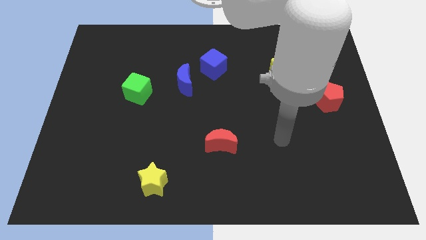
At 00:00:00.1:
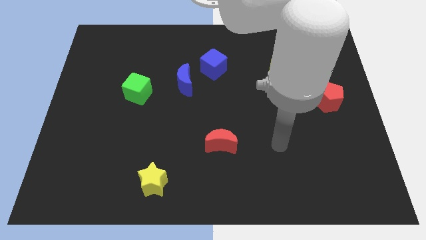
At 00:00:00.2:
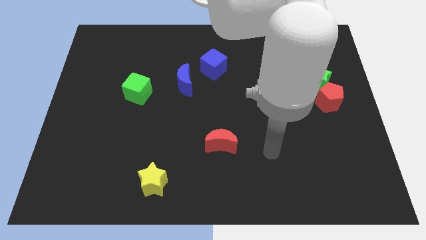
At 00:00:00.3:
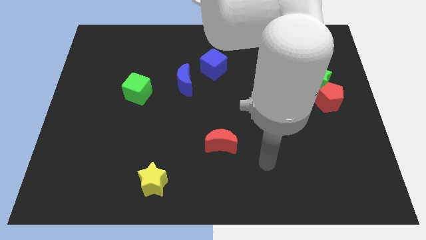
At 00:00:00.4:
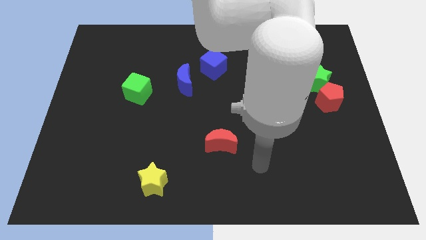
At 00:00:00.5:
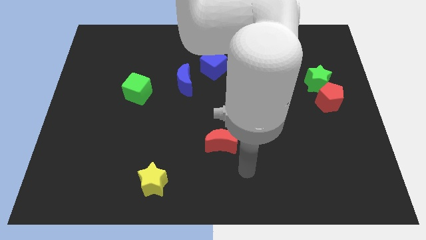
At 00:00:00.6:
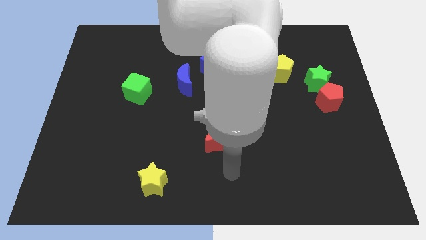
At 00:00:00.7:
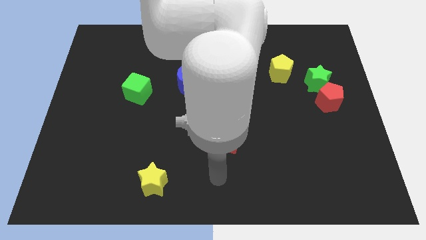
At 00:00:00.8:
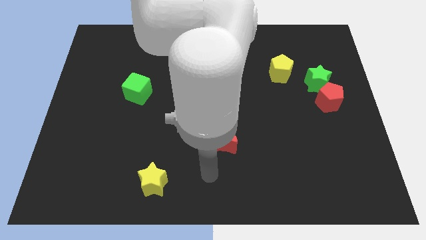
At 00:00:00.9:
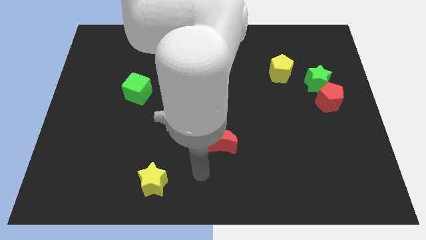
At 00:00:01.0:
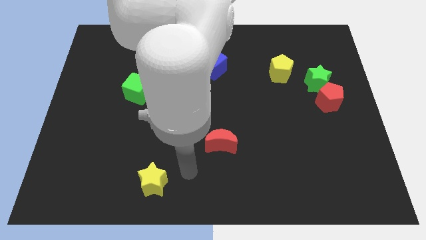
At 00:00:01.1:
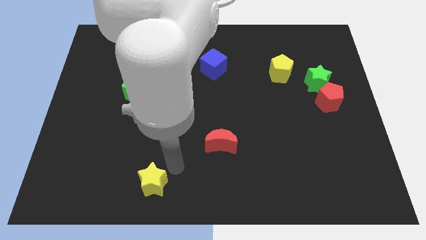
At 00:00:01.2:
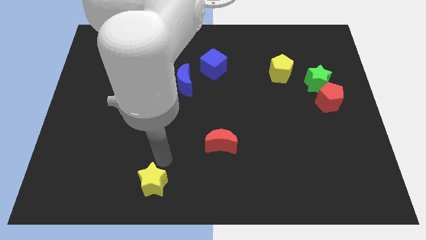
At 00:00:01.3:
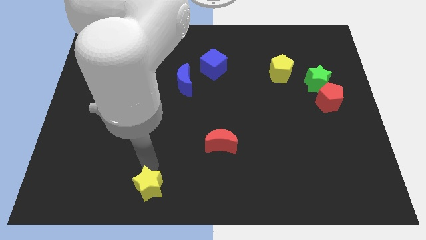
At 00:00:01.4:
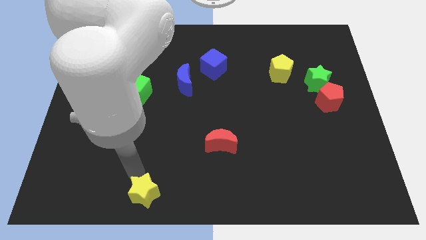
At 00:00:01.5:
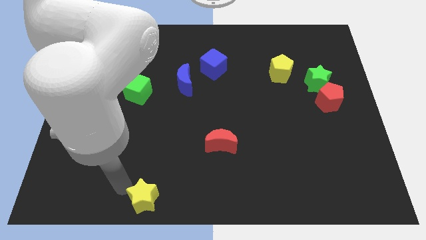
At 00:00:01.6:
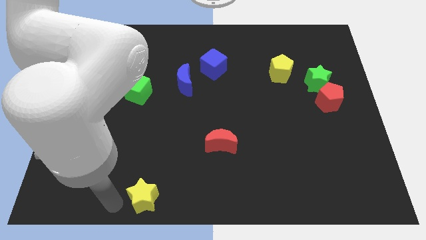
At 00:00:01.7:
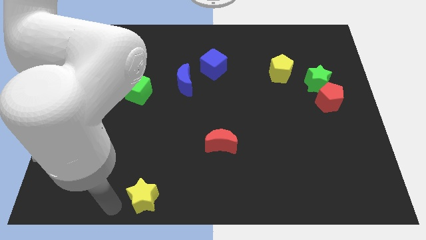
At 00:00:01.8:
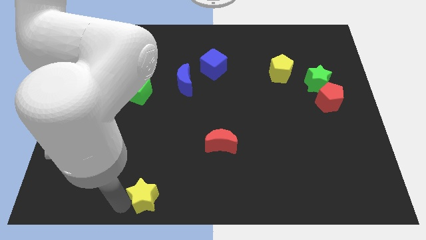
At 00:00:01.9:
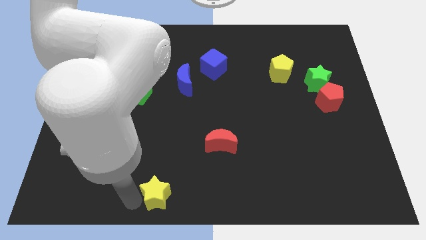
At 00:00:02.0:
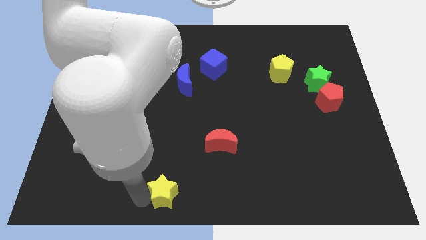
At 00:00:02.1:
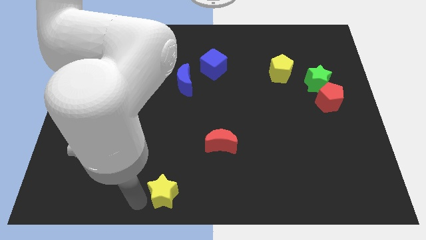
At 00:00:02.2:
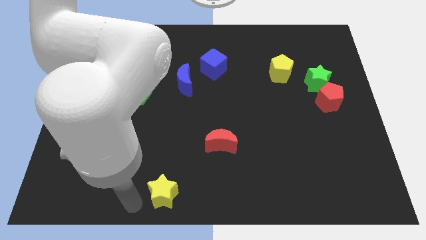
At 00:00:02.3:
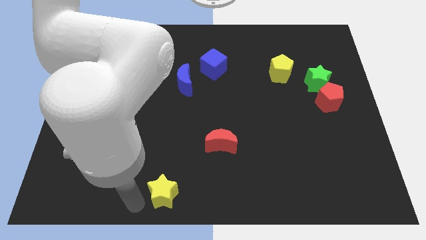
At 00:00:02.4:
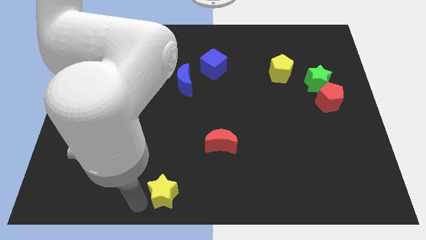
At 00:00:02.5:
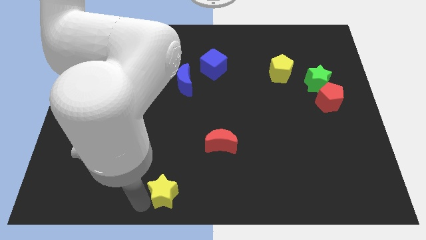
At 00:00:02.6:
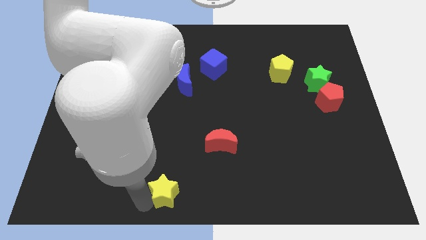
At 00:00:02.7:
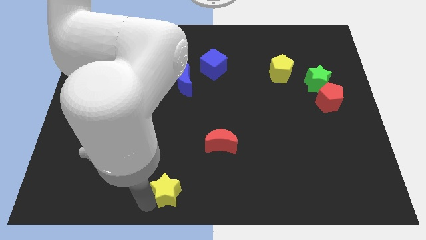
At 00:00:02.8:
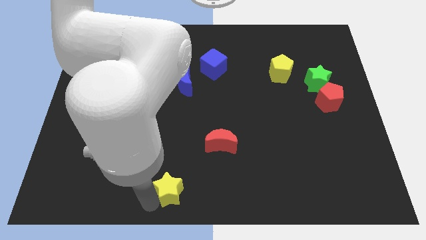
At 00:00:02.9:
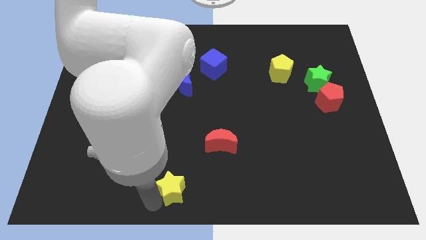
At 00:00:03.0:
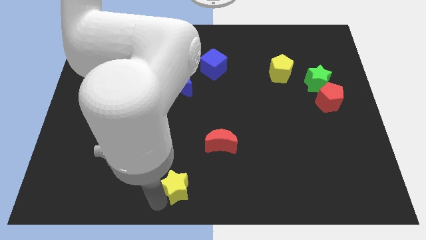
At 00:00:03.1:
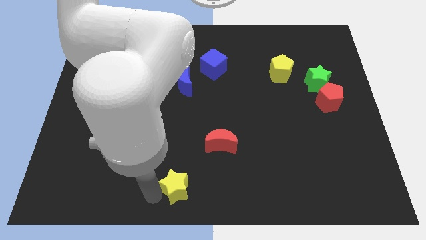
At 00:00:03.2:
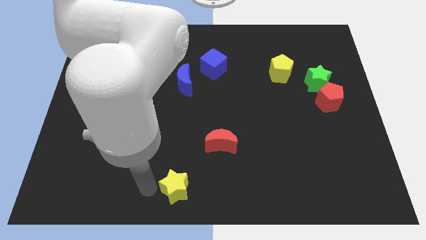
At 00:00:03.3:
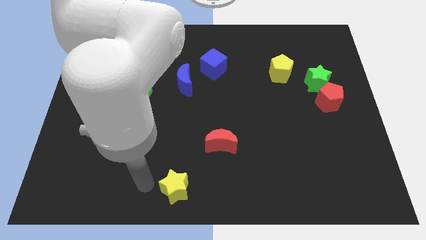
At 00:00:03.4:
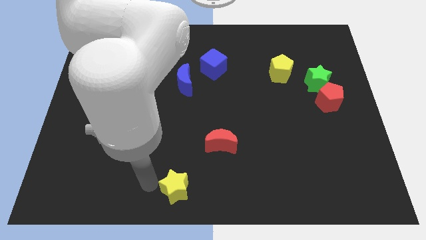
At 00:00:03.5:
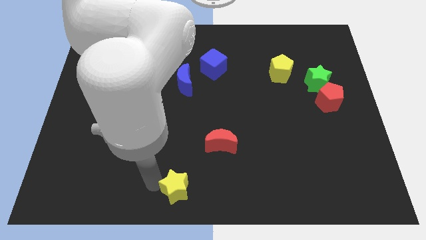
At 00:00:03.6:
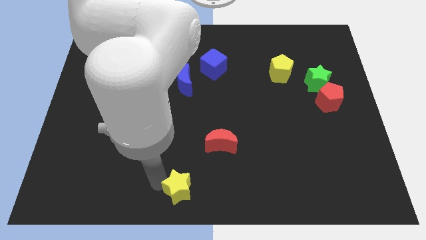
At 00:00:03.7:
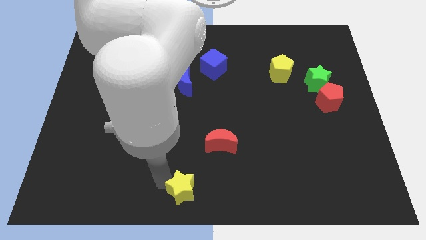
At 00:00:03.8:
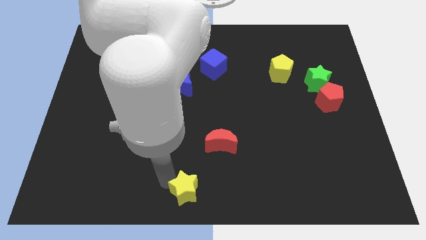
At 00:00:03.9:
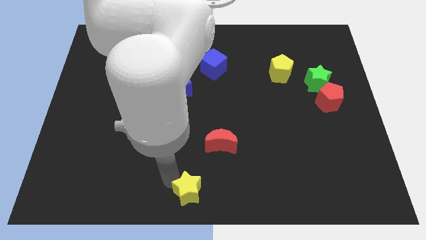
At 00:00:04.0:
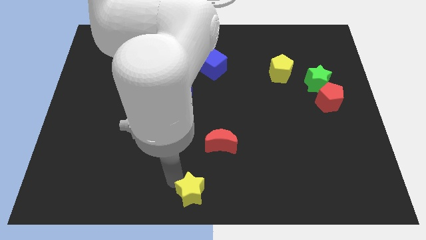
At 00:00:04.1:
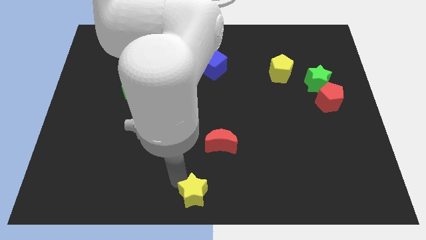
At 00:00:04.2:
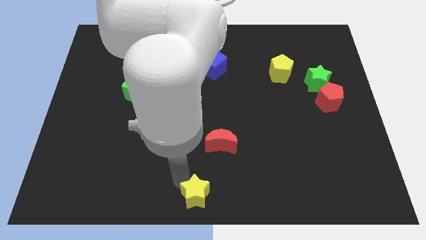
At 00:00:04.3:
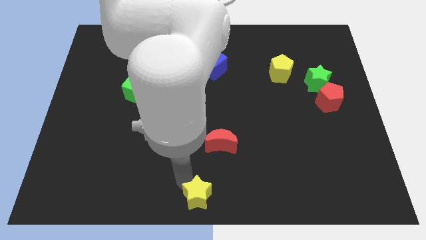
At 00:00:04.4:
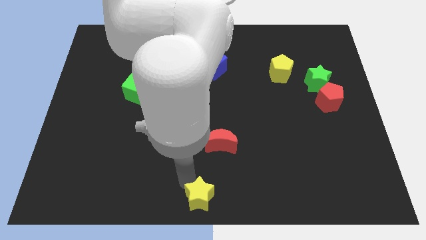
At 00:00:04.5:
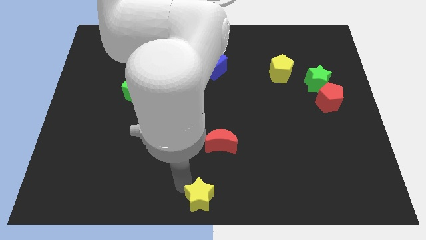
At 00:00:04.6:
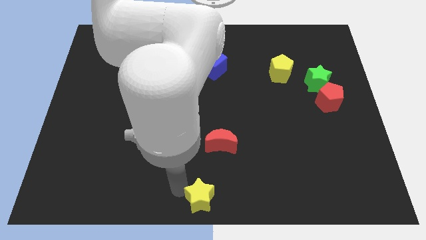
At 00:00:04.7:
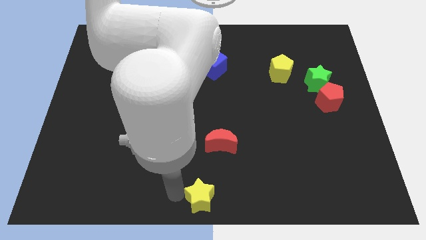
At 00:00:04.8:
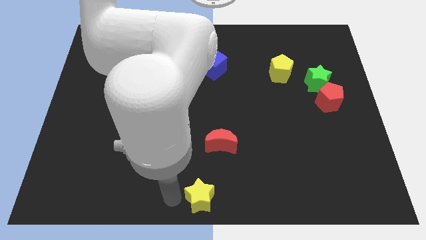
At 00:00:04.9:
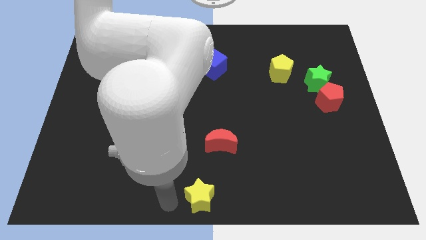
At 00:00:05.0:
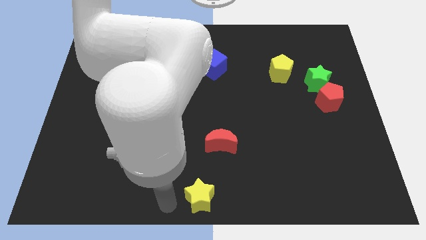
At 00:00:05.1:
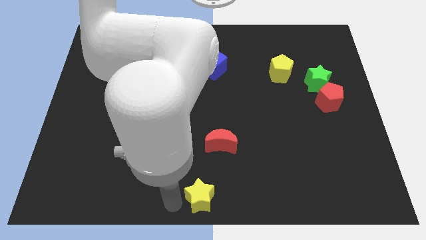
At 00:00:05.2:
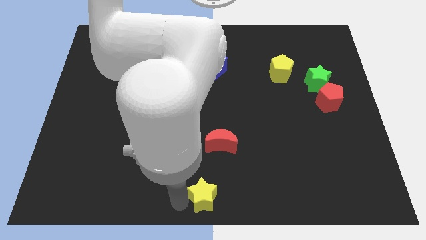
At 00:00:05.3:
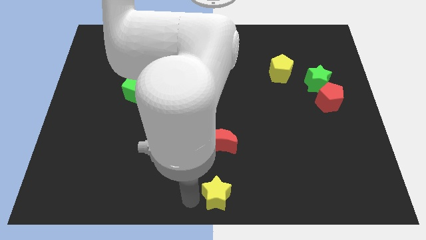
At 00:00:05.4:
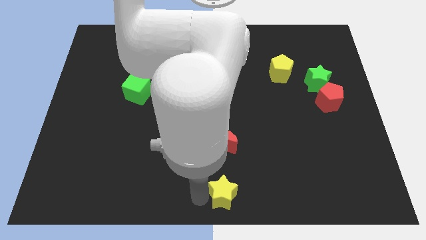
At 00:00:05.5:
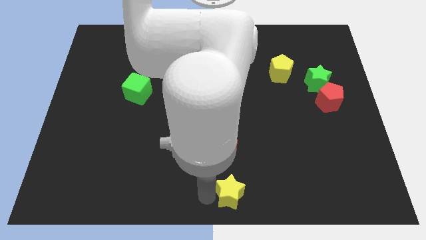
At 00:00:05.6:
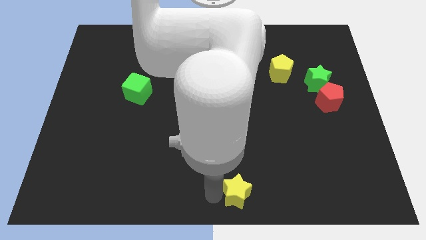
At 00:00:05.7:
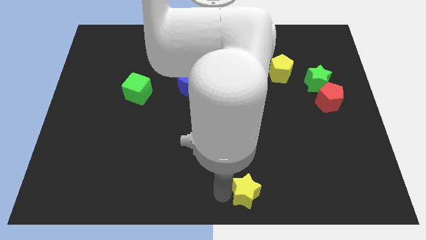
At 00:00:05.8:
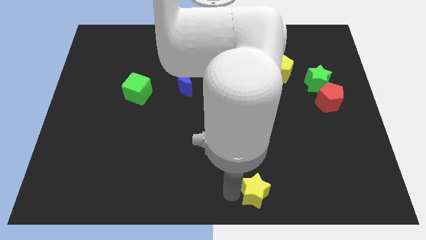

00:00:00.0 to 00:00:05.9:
move the yellow star to the right

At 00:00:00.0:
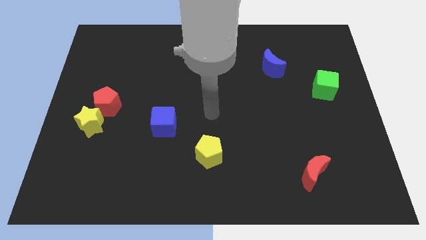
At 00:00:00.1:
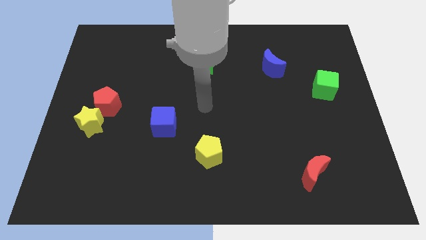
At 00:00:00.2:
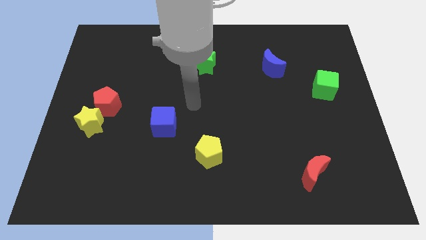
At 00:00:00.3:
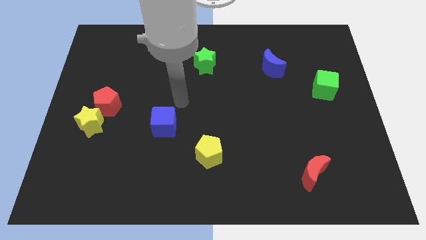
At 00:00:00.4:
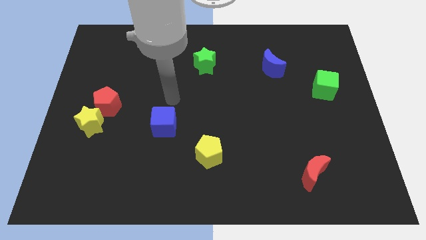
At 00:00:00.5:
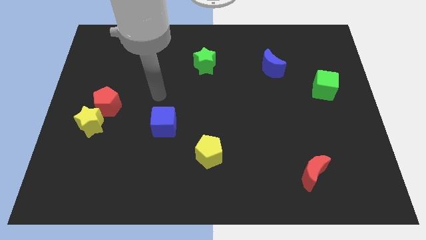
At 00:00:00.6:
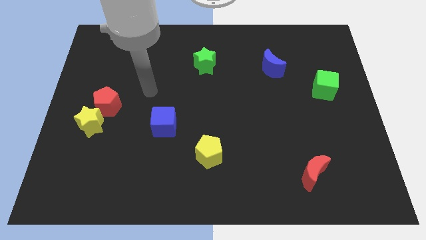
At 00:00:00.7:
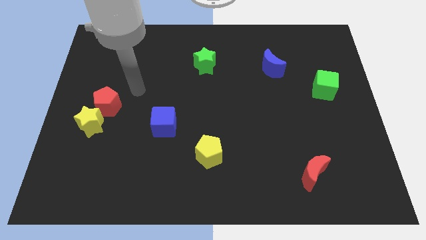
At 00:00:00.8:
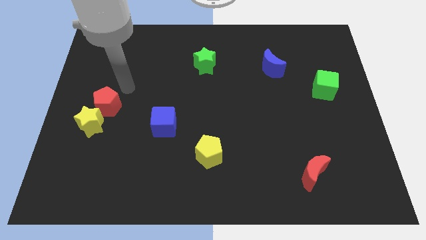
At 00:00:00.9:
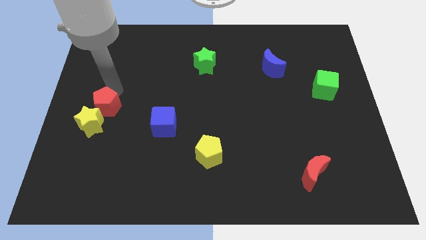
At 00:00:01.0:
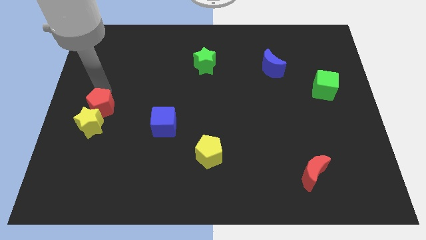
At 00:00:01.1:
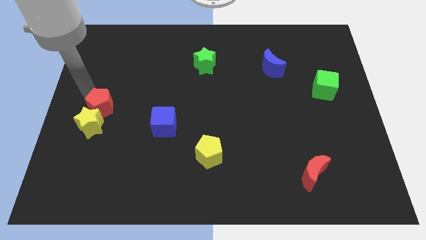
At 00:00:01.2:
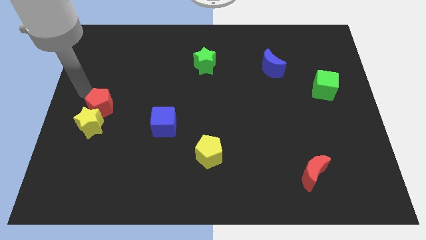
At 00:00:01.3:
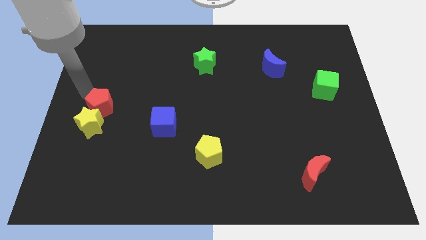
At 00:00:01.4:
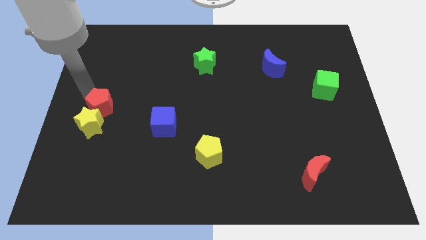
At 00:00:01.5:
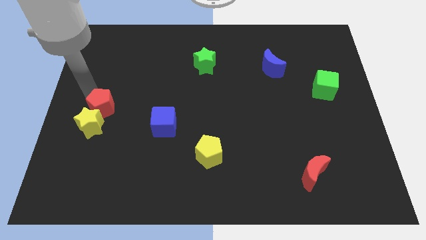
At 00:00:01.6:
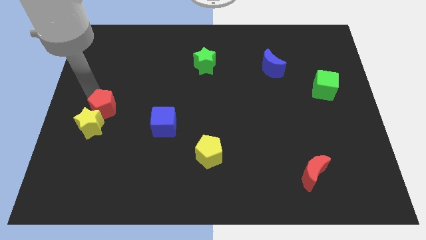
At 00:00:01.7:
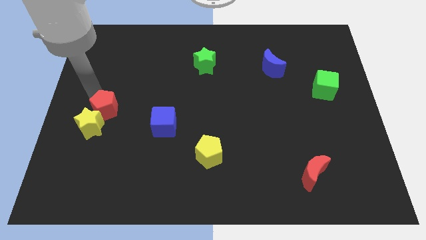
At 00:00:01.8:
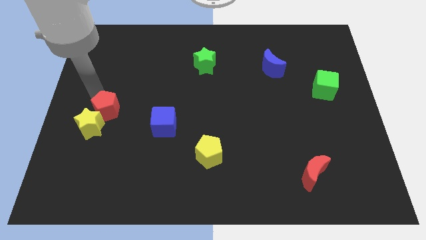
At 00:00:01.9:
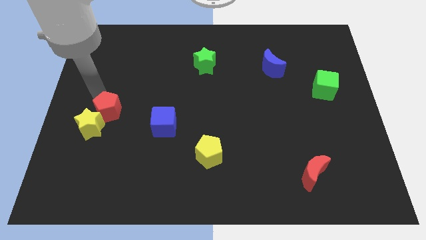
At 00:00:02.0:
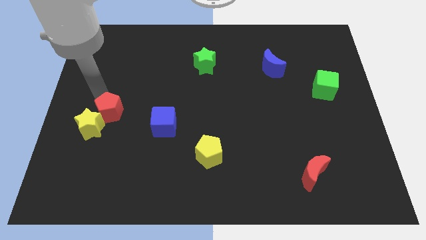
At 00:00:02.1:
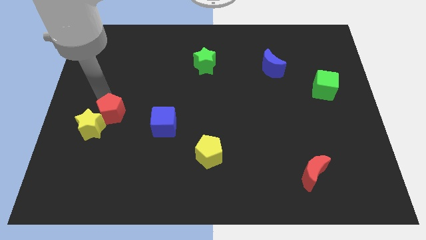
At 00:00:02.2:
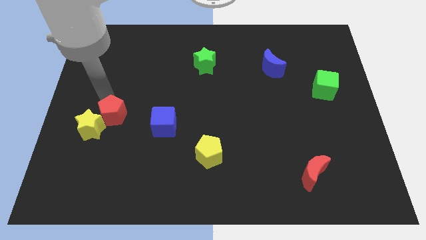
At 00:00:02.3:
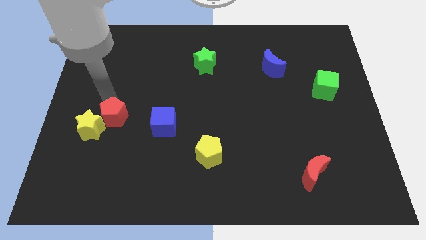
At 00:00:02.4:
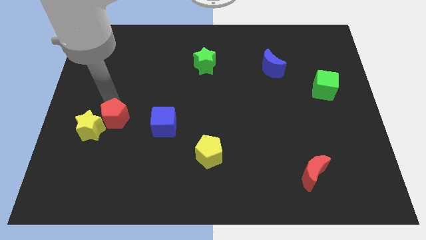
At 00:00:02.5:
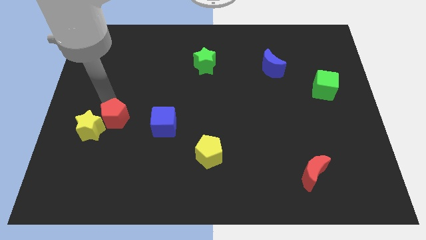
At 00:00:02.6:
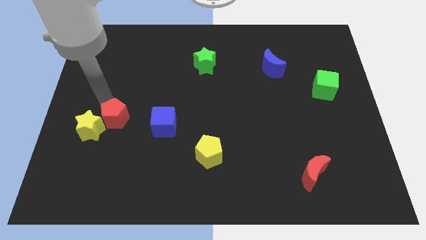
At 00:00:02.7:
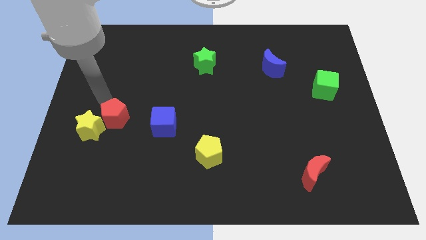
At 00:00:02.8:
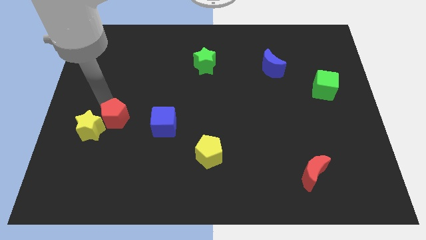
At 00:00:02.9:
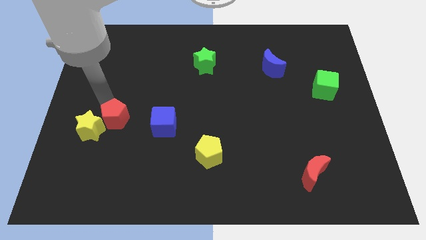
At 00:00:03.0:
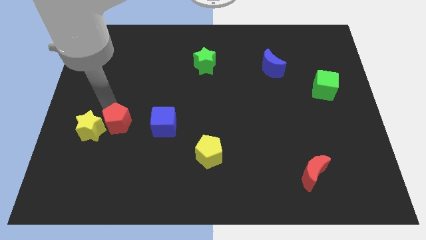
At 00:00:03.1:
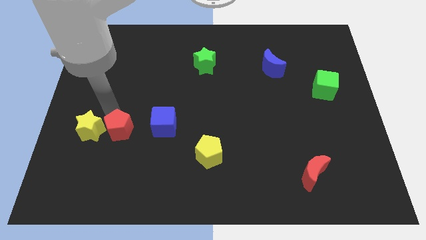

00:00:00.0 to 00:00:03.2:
slightly move the red pentagon diagonally down and to the right
